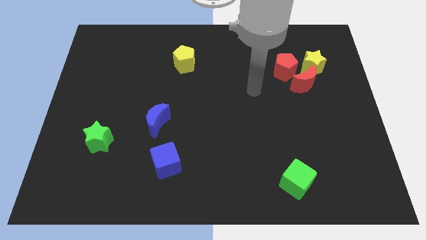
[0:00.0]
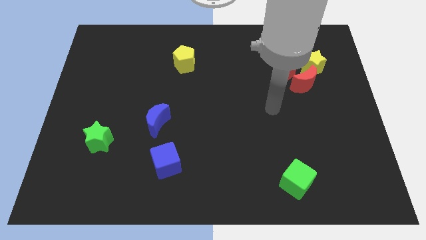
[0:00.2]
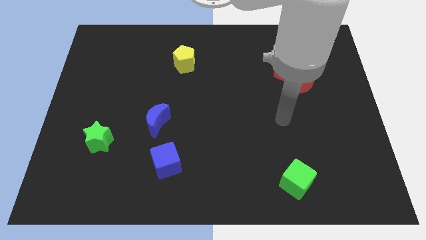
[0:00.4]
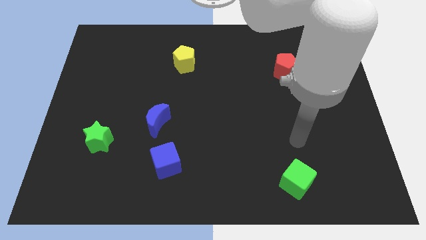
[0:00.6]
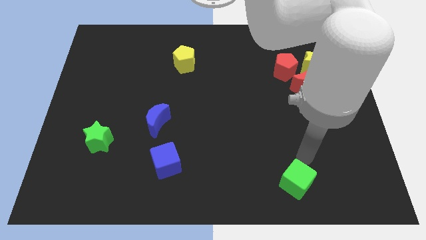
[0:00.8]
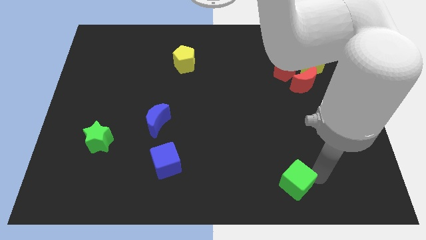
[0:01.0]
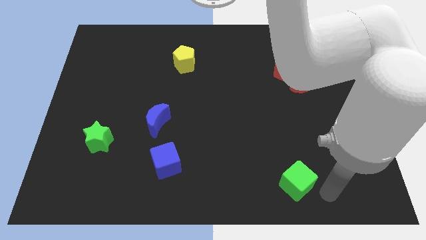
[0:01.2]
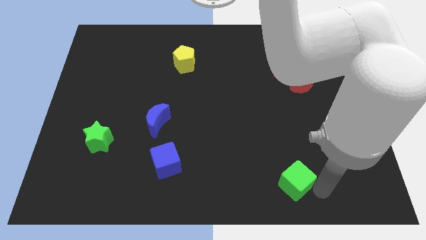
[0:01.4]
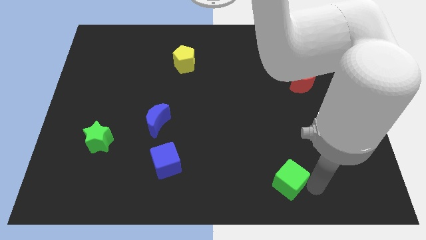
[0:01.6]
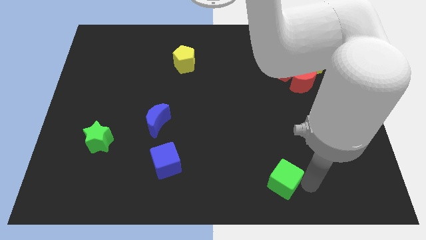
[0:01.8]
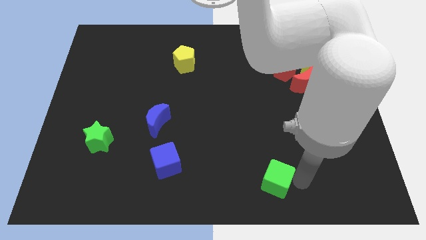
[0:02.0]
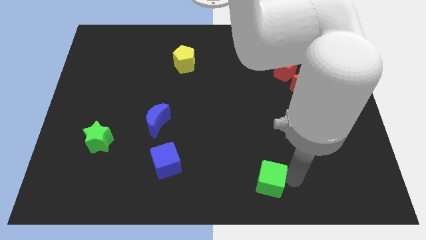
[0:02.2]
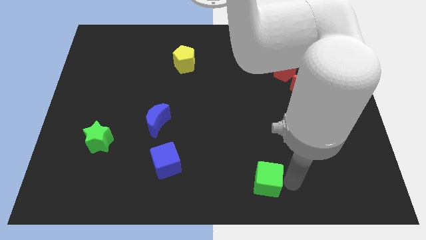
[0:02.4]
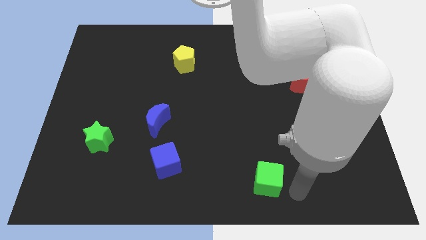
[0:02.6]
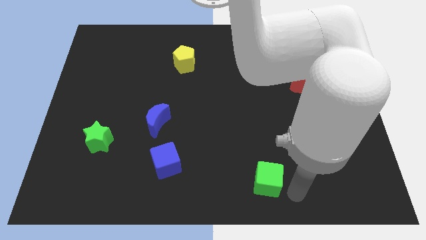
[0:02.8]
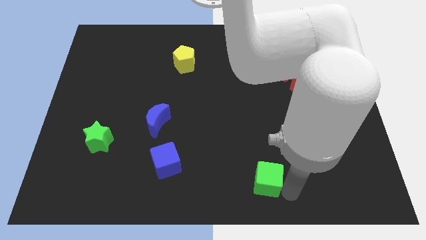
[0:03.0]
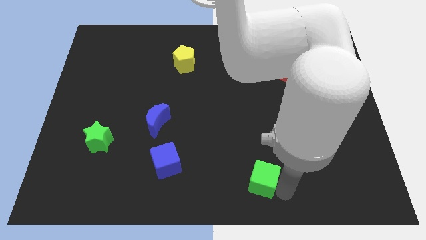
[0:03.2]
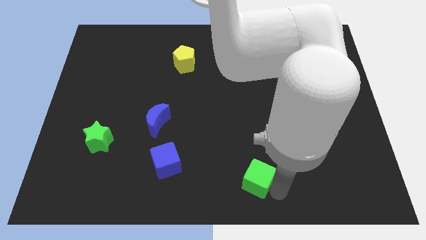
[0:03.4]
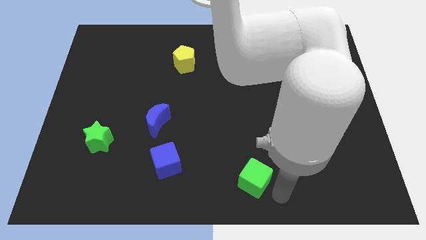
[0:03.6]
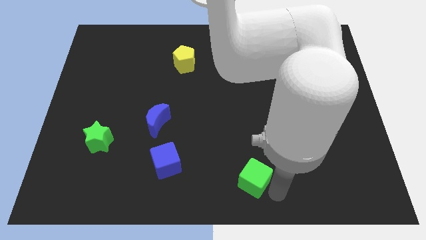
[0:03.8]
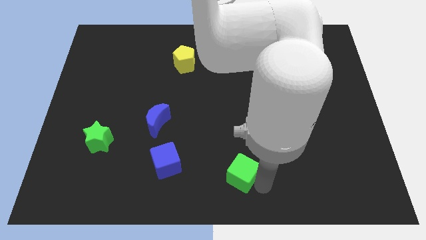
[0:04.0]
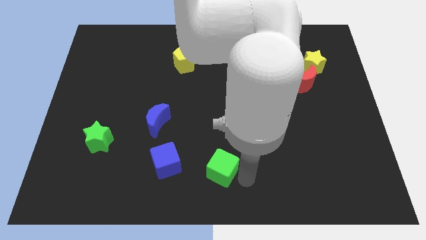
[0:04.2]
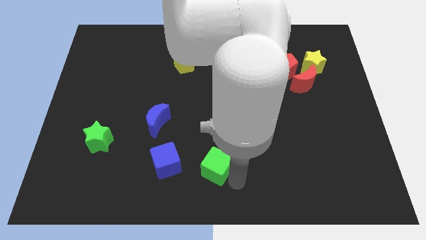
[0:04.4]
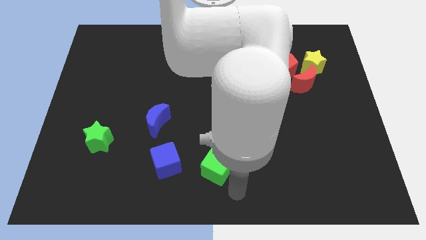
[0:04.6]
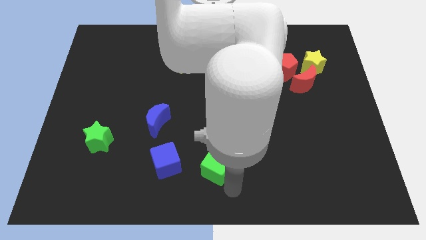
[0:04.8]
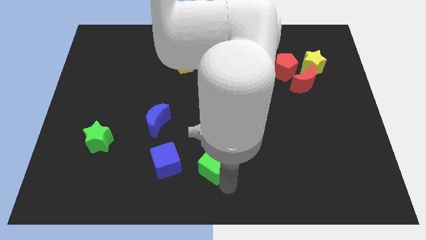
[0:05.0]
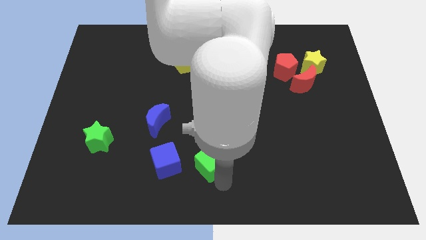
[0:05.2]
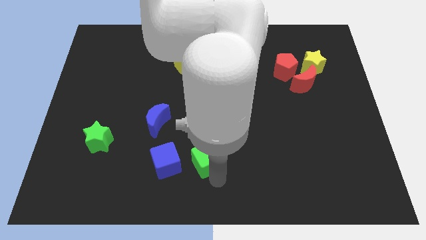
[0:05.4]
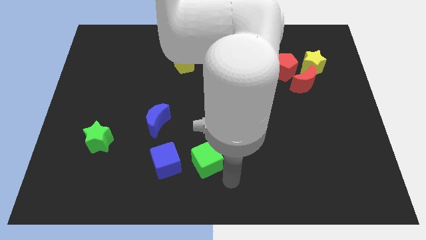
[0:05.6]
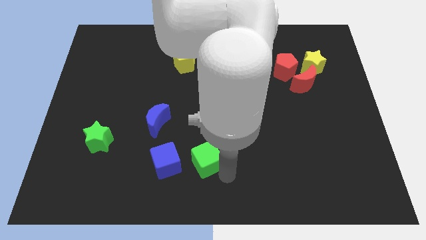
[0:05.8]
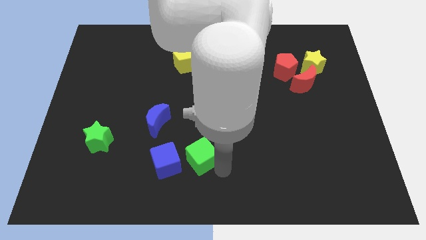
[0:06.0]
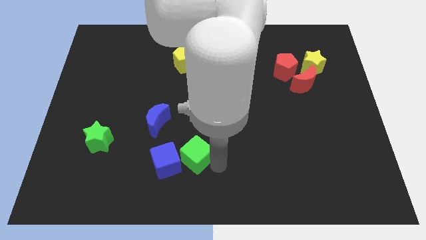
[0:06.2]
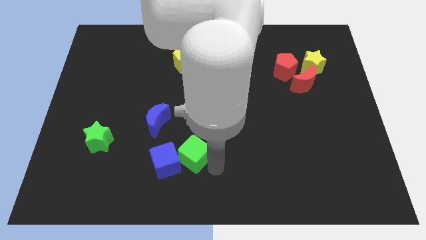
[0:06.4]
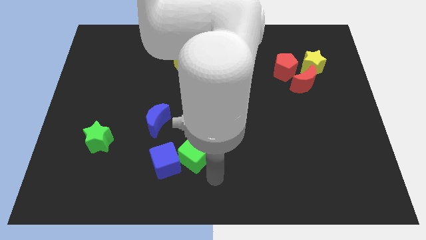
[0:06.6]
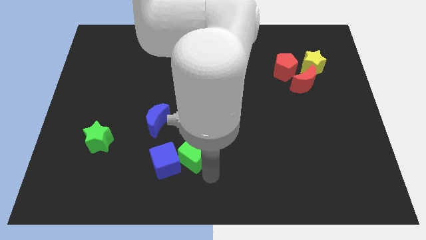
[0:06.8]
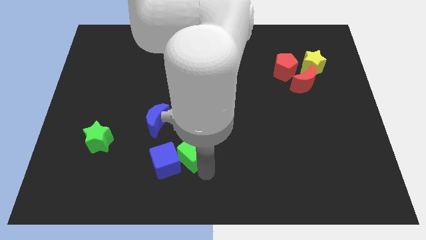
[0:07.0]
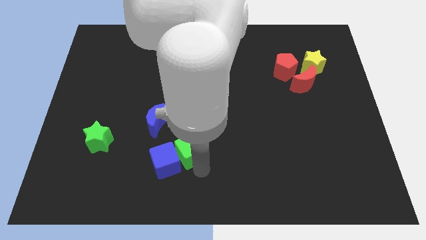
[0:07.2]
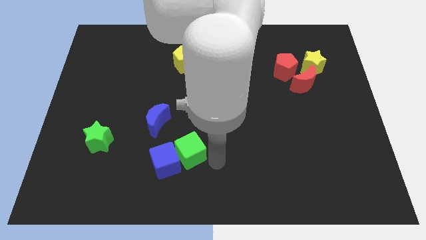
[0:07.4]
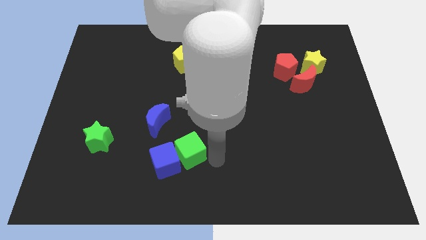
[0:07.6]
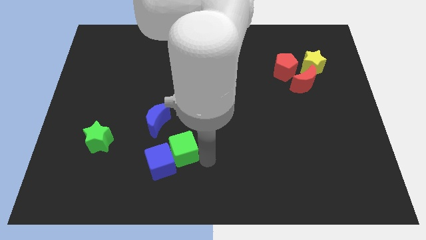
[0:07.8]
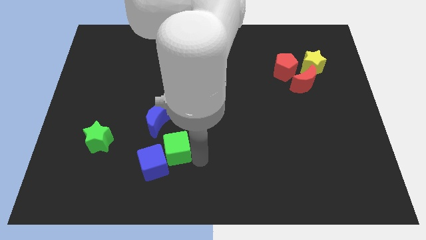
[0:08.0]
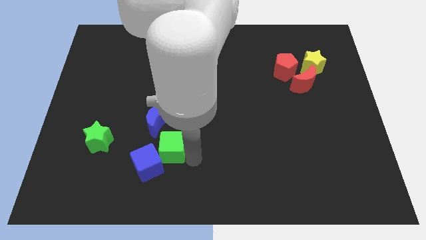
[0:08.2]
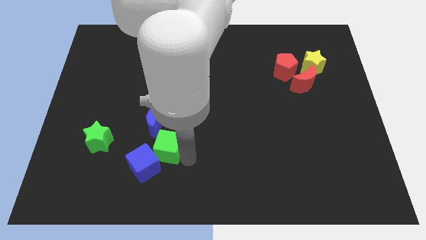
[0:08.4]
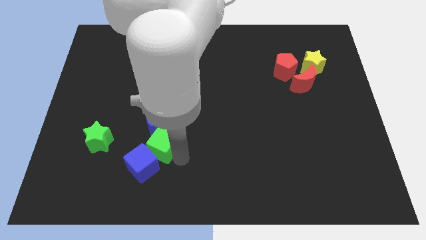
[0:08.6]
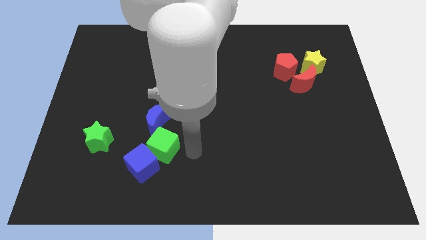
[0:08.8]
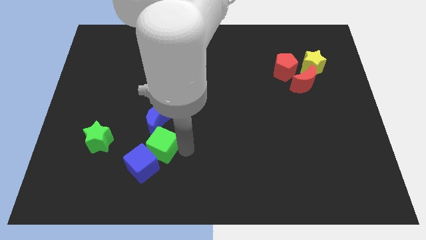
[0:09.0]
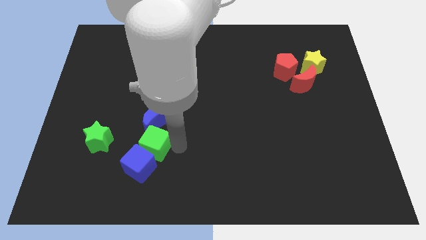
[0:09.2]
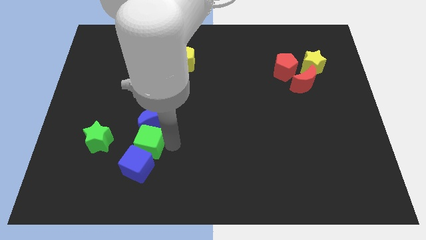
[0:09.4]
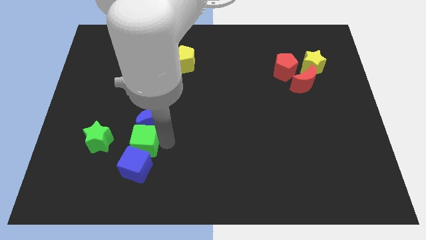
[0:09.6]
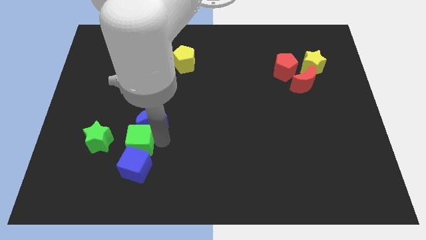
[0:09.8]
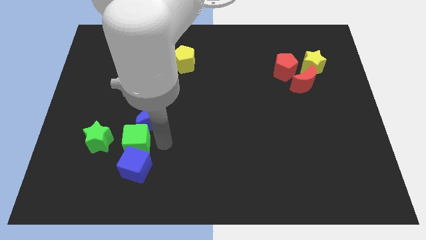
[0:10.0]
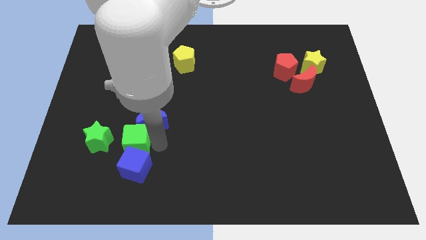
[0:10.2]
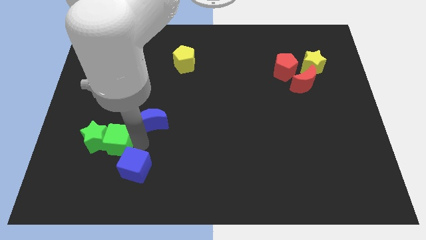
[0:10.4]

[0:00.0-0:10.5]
move the green cube to the green star

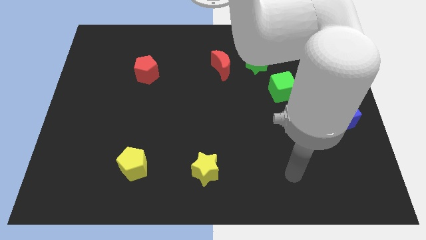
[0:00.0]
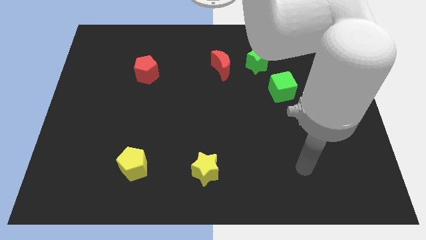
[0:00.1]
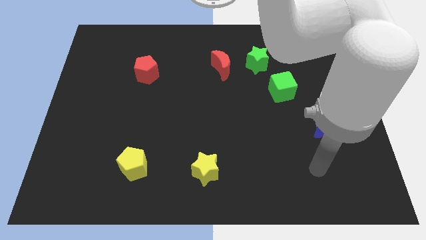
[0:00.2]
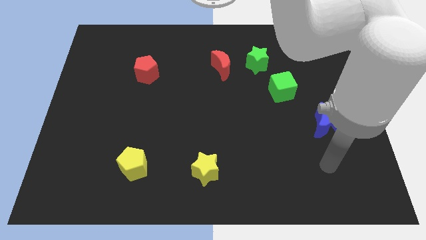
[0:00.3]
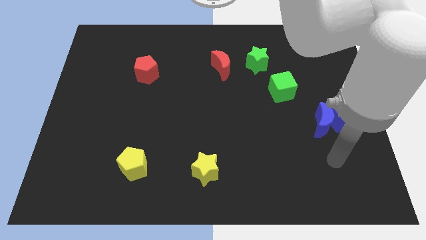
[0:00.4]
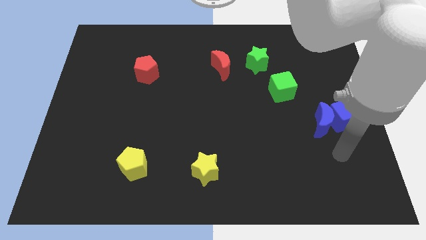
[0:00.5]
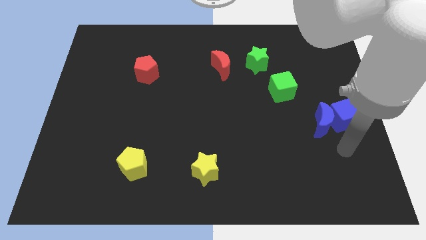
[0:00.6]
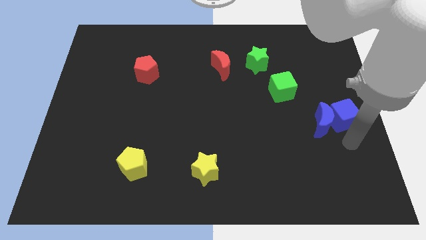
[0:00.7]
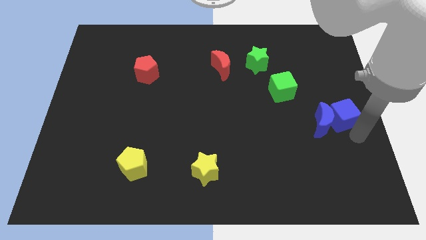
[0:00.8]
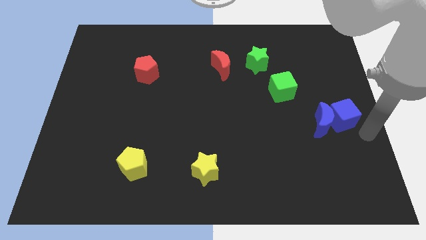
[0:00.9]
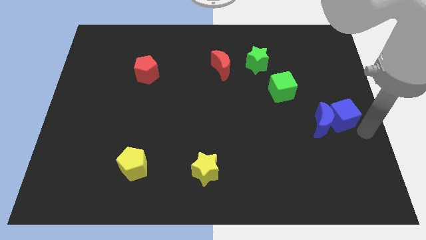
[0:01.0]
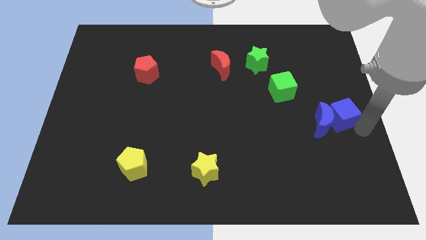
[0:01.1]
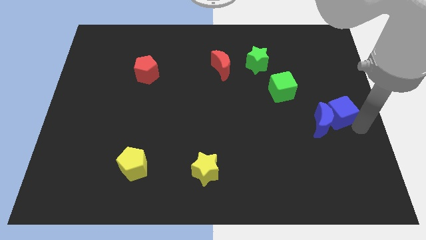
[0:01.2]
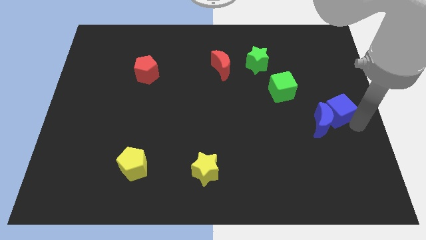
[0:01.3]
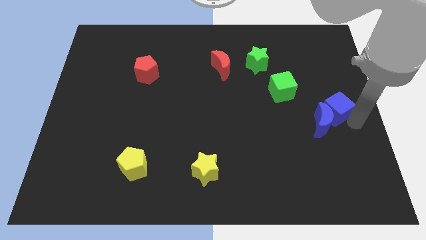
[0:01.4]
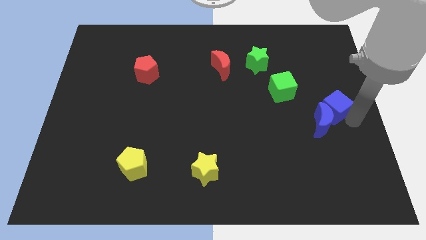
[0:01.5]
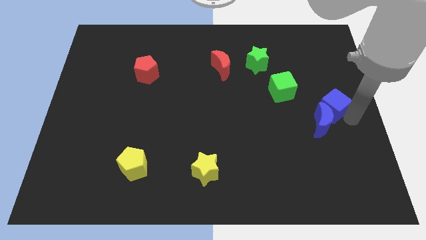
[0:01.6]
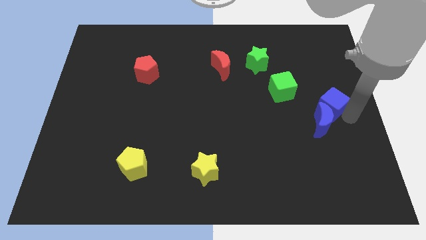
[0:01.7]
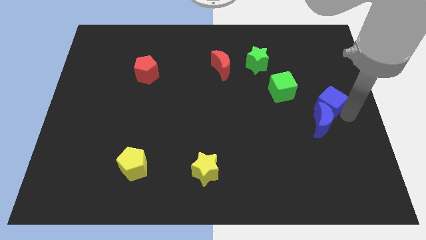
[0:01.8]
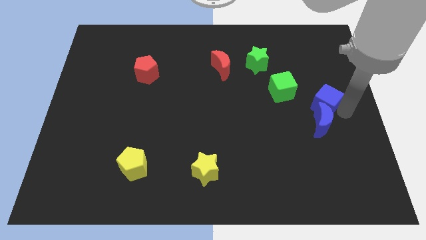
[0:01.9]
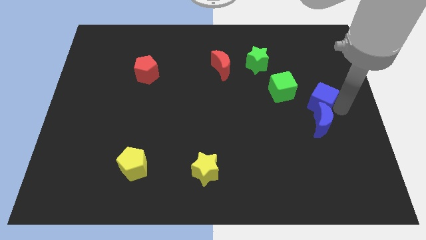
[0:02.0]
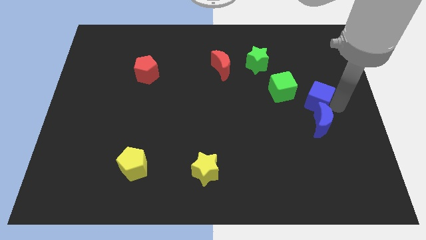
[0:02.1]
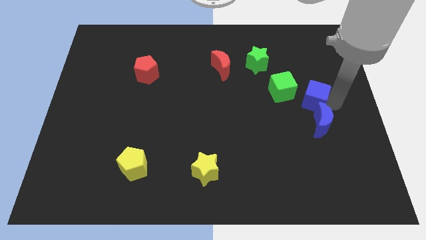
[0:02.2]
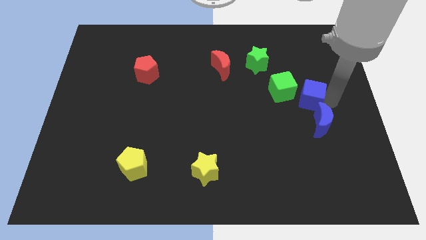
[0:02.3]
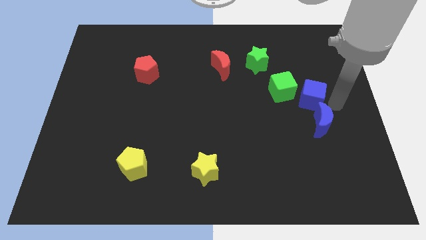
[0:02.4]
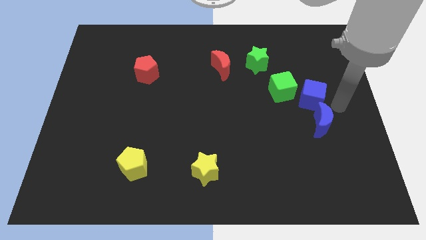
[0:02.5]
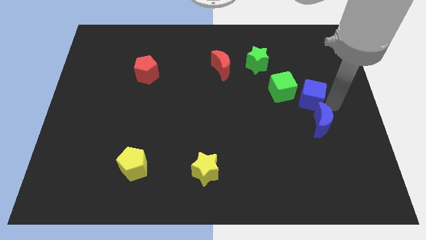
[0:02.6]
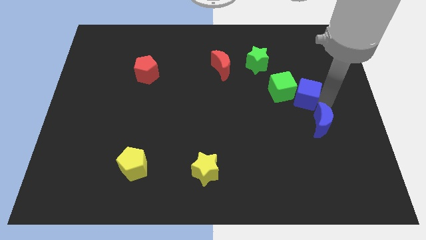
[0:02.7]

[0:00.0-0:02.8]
move the blue cube towards the green cube
